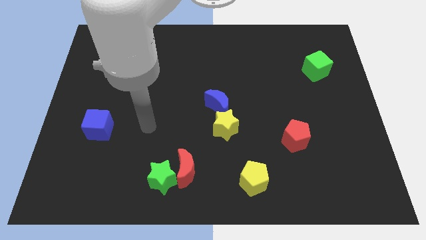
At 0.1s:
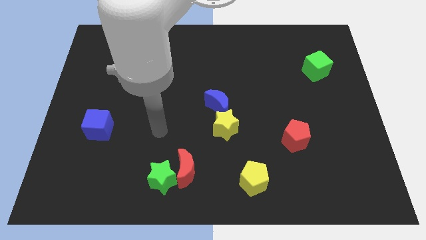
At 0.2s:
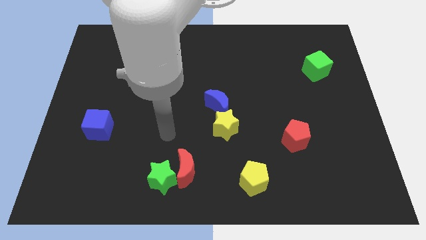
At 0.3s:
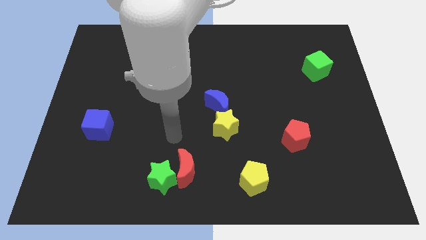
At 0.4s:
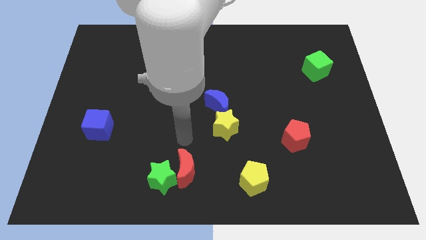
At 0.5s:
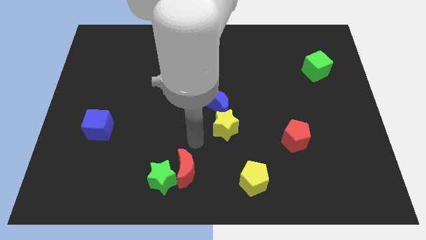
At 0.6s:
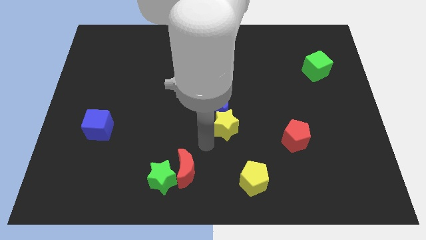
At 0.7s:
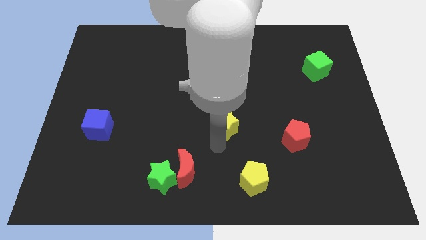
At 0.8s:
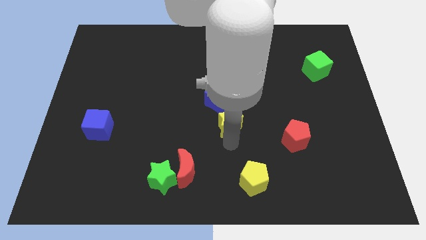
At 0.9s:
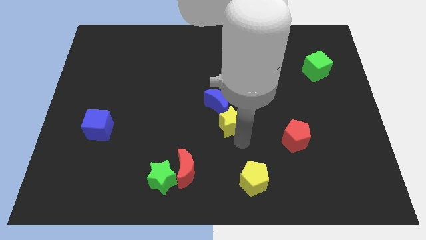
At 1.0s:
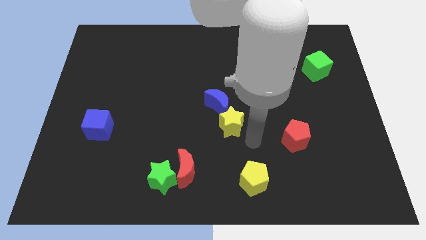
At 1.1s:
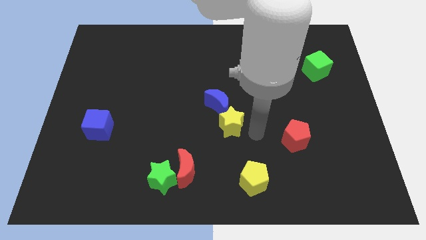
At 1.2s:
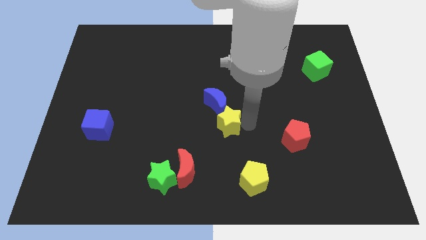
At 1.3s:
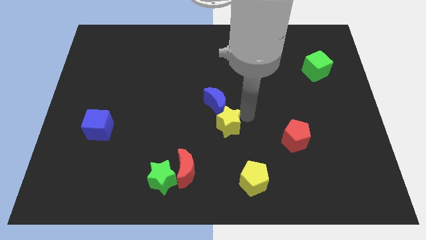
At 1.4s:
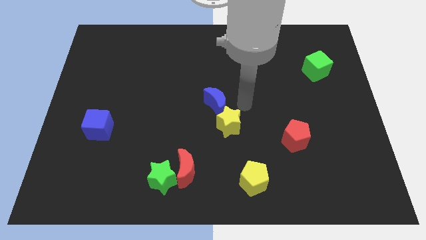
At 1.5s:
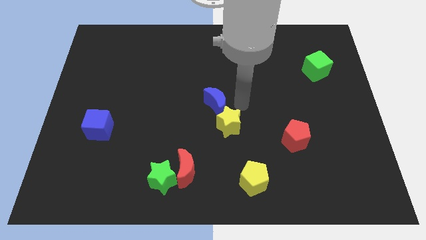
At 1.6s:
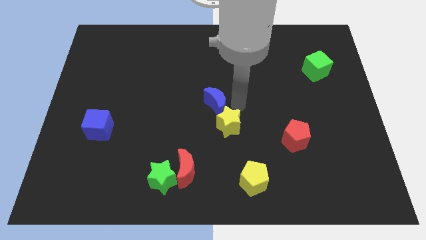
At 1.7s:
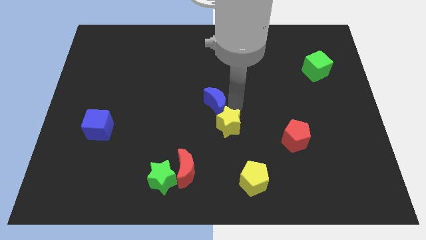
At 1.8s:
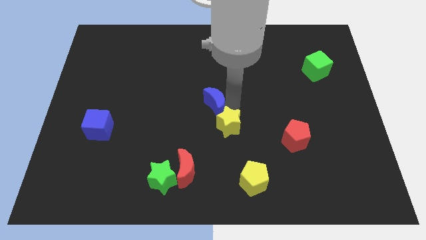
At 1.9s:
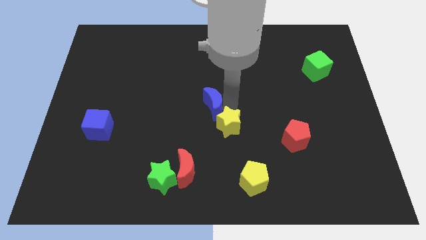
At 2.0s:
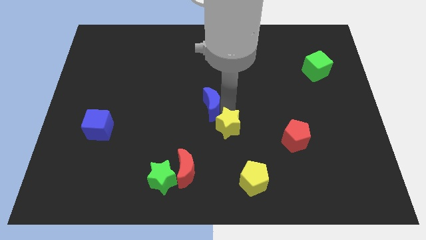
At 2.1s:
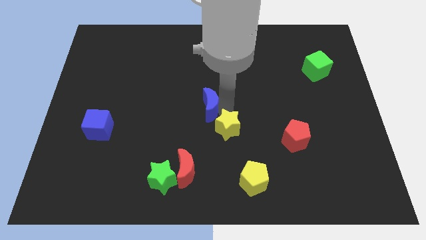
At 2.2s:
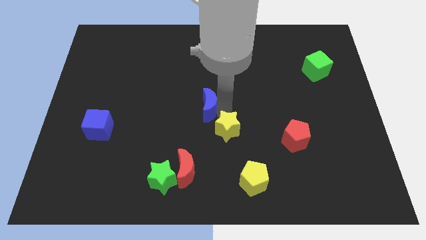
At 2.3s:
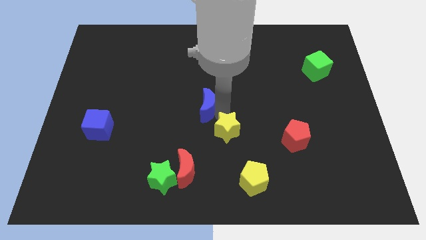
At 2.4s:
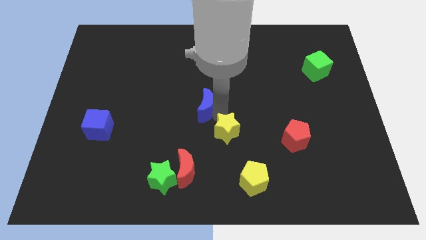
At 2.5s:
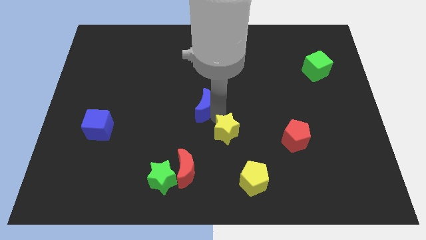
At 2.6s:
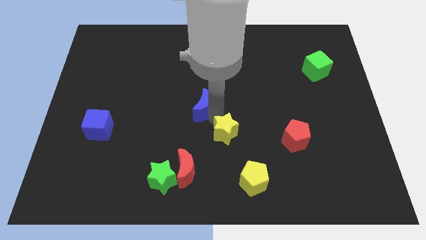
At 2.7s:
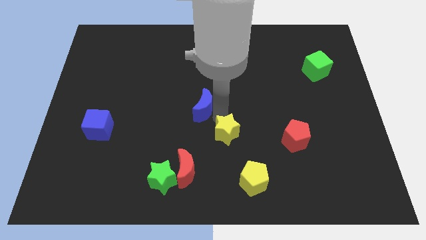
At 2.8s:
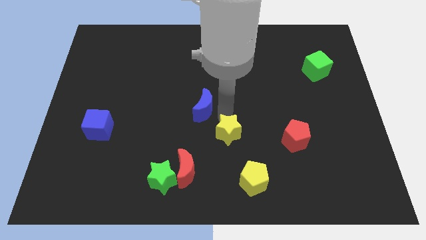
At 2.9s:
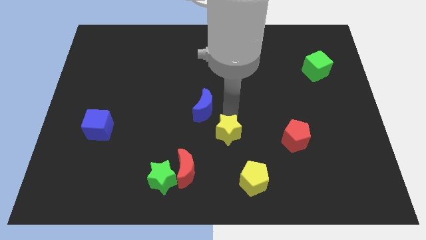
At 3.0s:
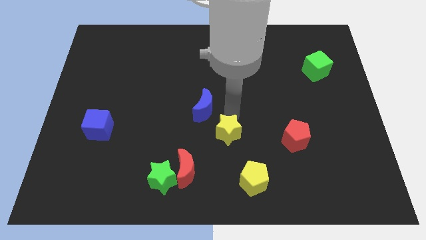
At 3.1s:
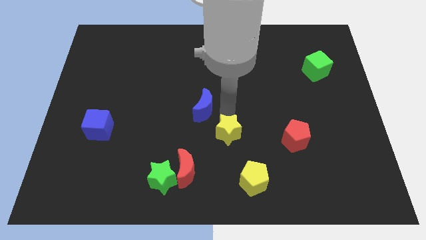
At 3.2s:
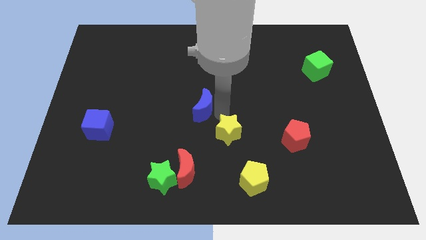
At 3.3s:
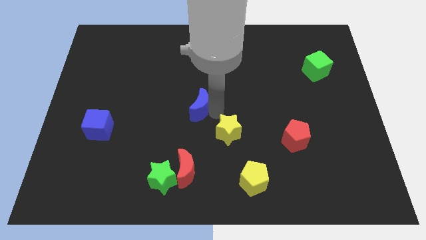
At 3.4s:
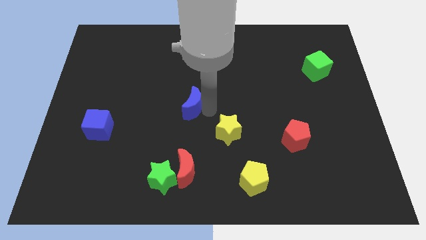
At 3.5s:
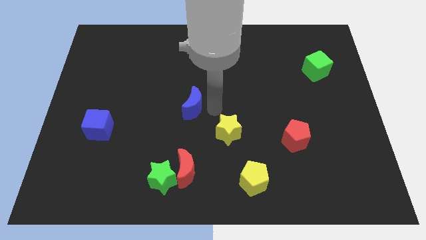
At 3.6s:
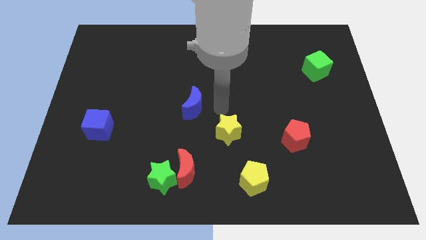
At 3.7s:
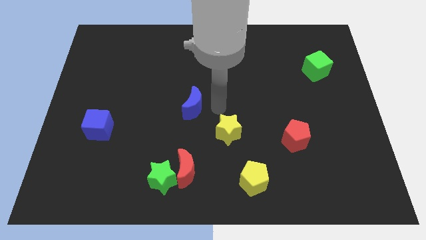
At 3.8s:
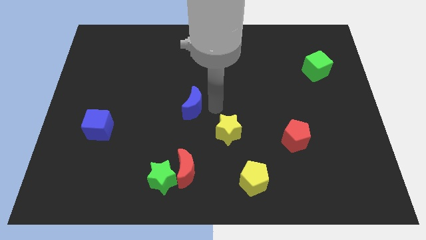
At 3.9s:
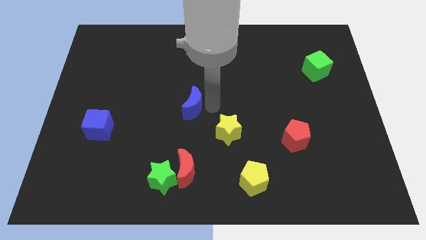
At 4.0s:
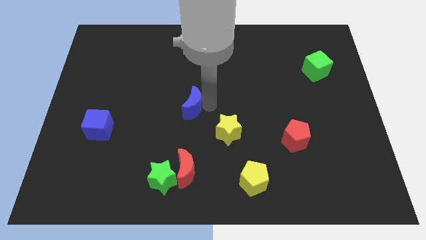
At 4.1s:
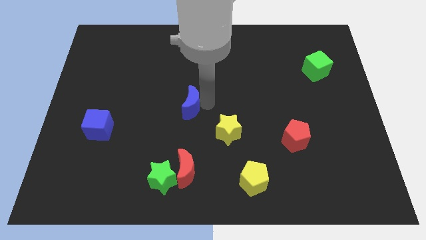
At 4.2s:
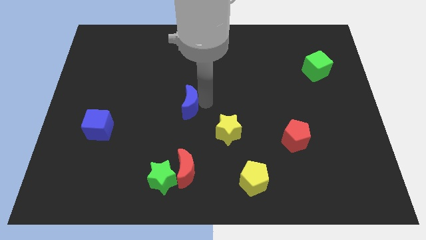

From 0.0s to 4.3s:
slightly move the blue moon left

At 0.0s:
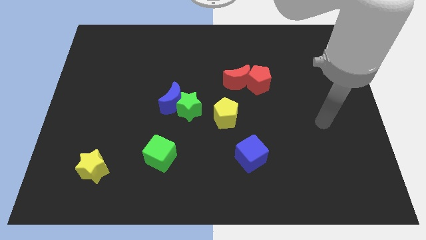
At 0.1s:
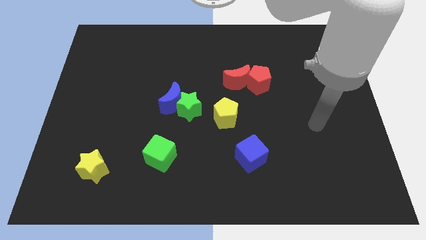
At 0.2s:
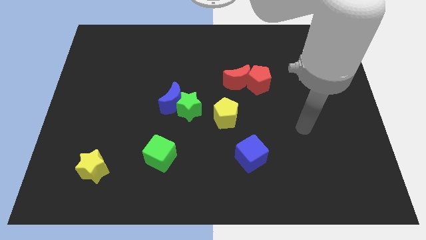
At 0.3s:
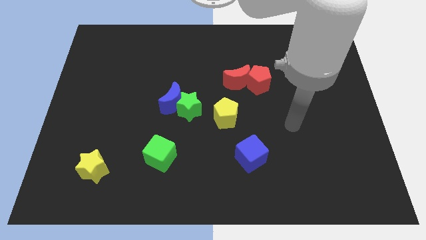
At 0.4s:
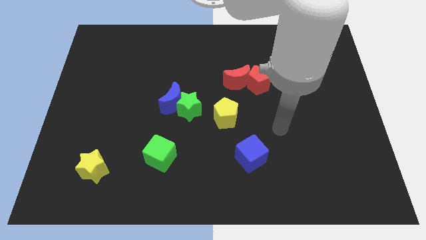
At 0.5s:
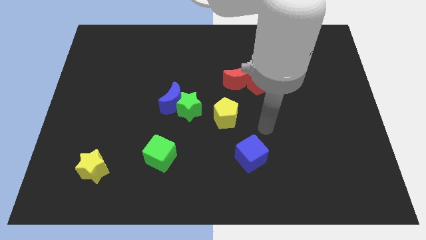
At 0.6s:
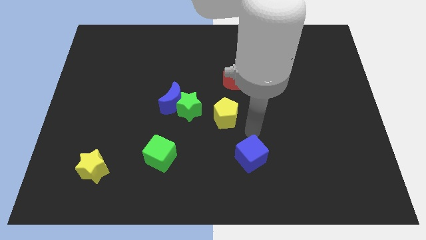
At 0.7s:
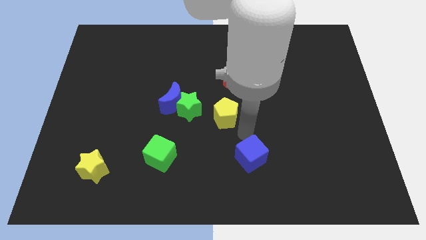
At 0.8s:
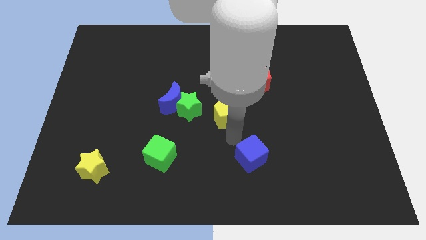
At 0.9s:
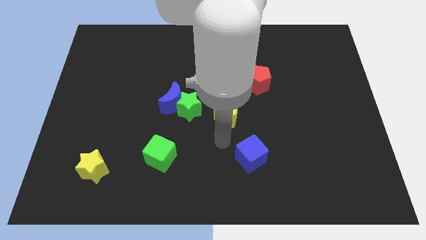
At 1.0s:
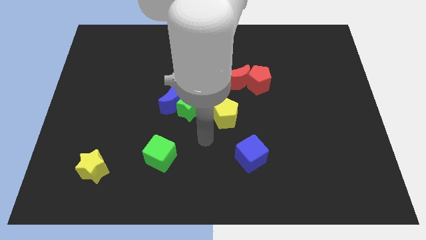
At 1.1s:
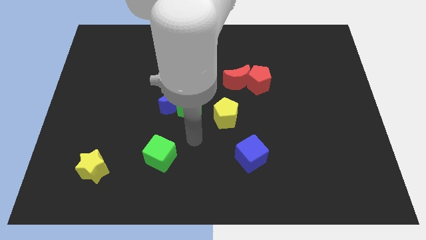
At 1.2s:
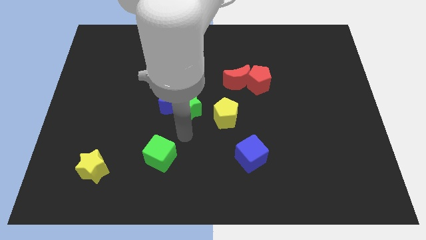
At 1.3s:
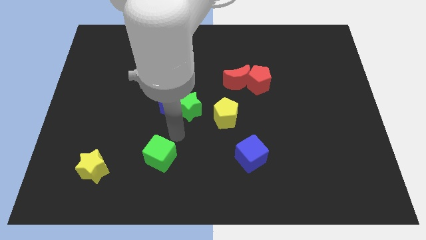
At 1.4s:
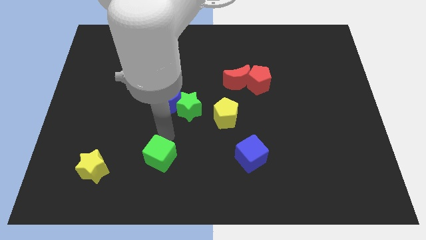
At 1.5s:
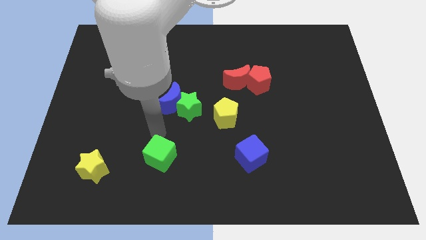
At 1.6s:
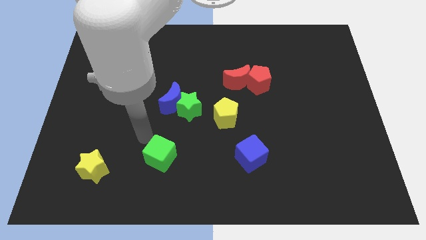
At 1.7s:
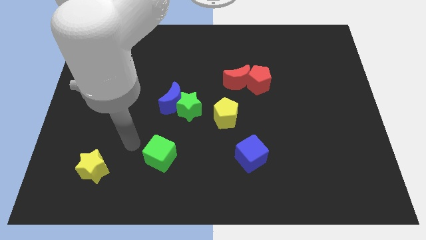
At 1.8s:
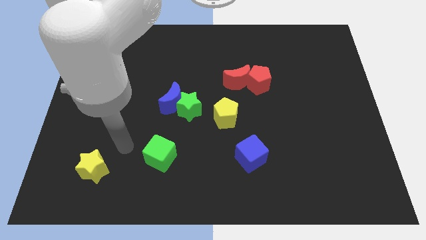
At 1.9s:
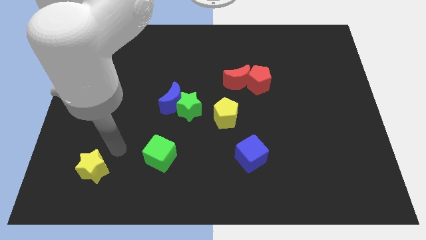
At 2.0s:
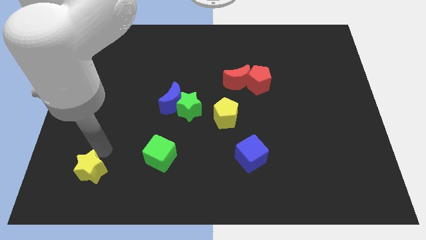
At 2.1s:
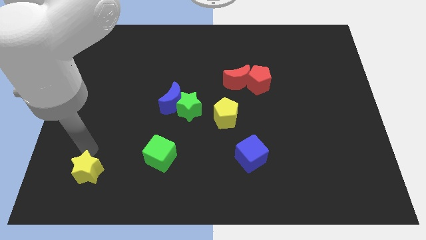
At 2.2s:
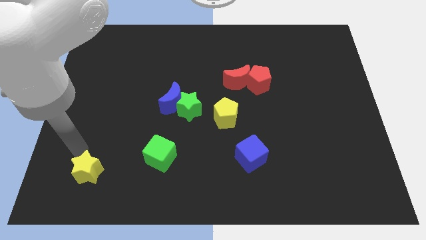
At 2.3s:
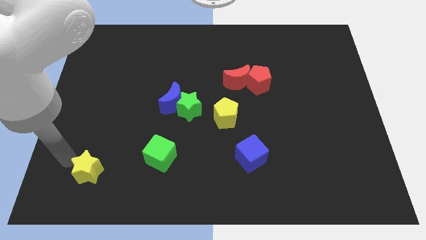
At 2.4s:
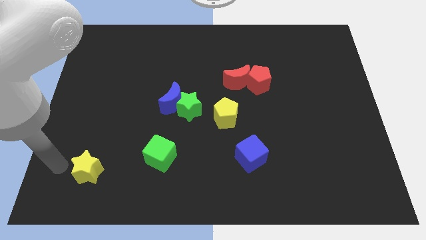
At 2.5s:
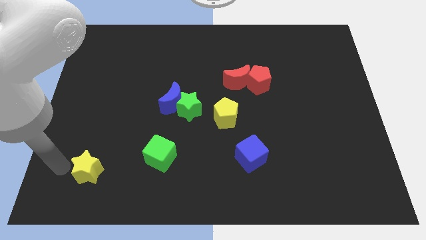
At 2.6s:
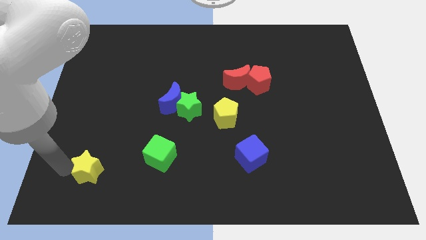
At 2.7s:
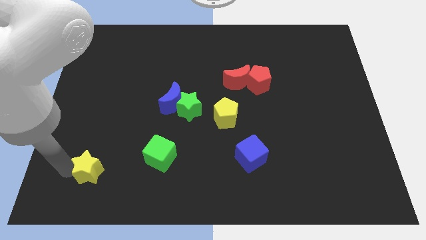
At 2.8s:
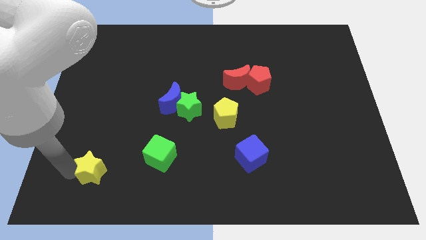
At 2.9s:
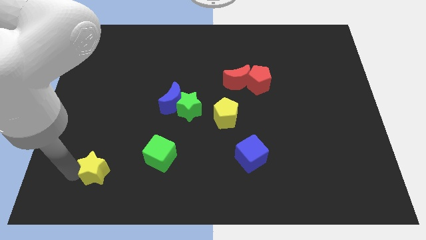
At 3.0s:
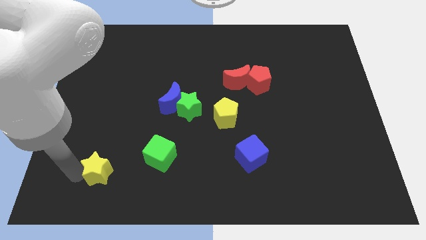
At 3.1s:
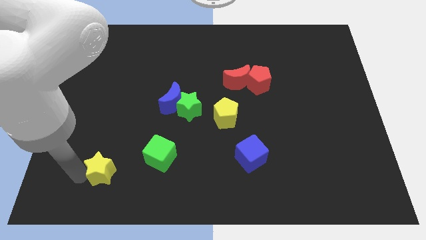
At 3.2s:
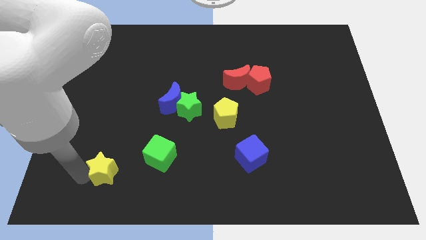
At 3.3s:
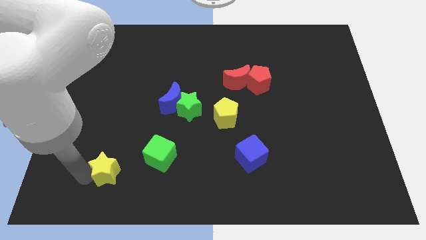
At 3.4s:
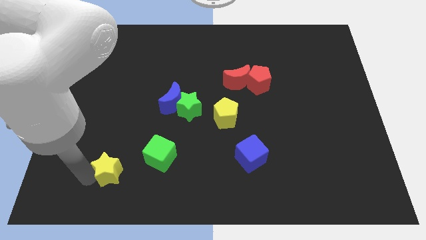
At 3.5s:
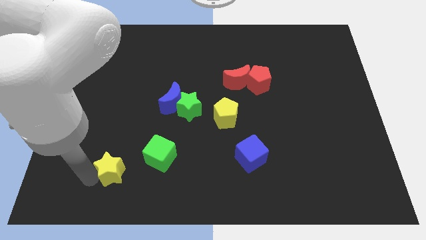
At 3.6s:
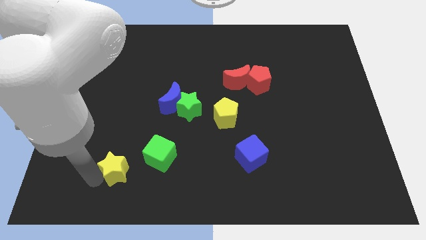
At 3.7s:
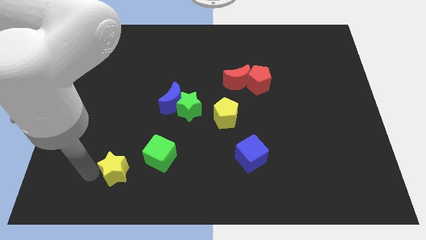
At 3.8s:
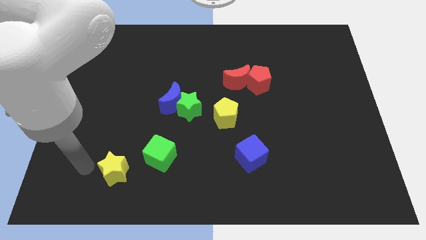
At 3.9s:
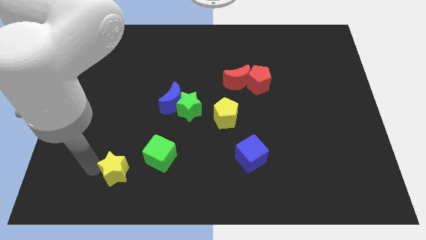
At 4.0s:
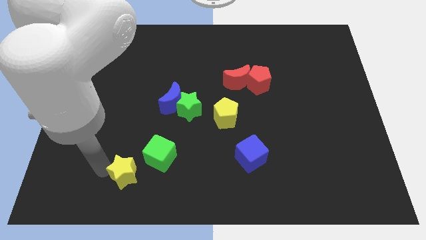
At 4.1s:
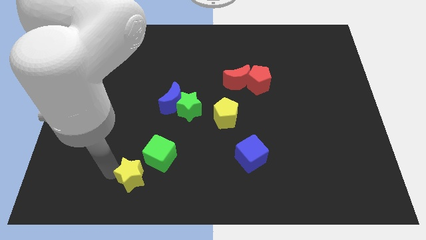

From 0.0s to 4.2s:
slightly push the yellow star to the right

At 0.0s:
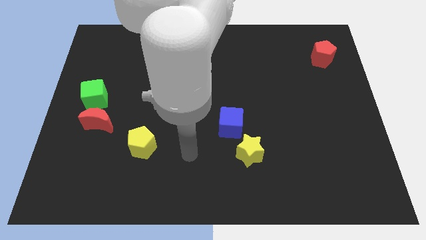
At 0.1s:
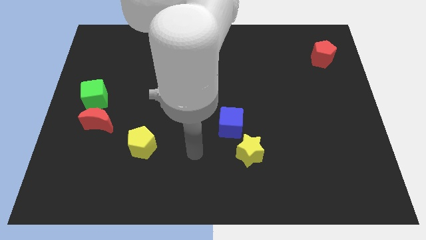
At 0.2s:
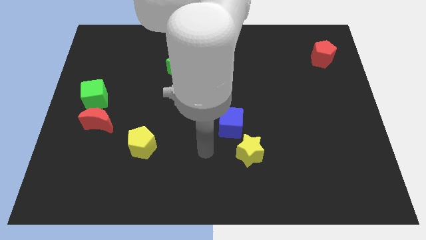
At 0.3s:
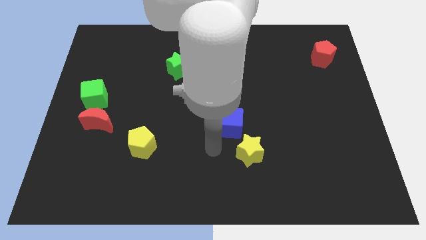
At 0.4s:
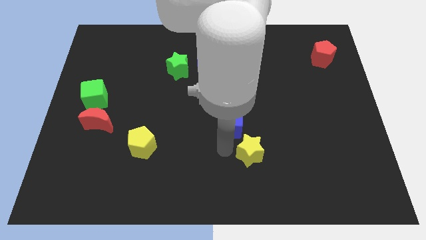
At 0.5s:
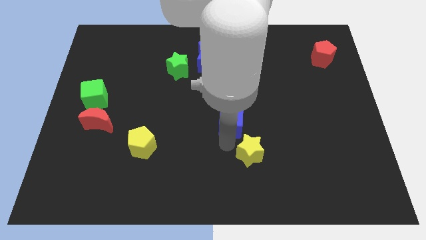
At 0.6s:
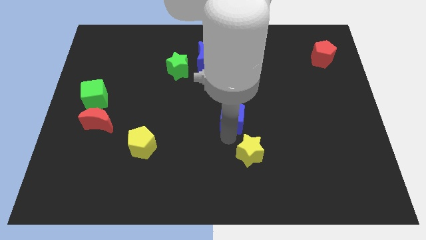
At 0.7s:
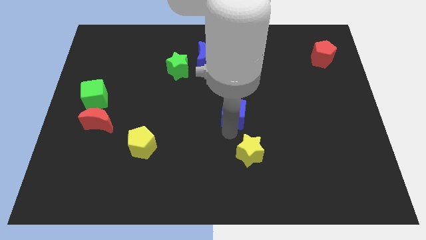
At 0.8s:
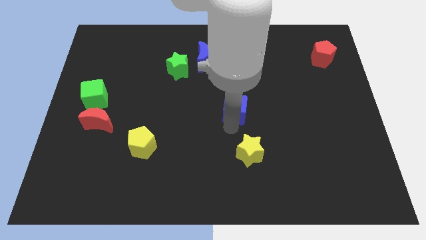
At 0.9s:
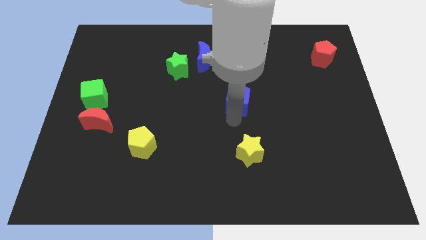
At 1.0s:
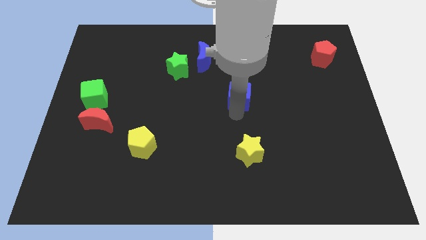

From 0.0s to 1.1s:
slightly push the blue cube up
